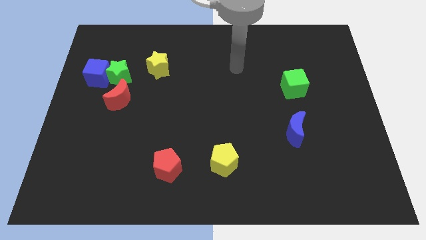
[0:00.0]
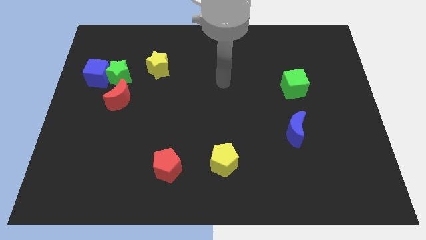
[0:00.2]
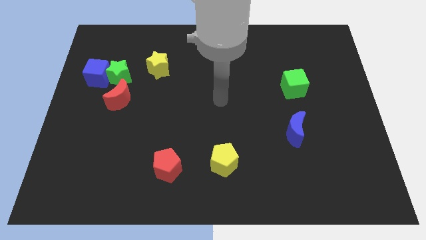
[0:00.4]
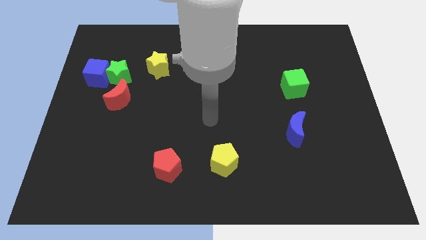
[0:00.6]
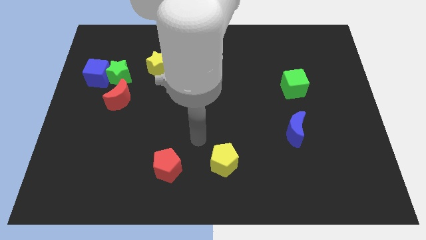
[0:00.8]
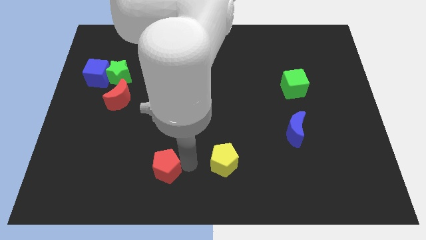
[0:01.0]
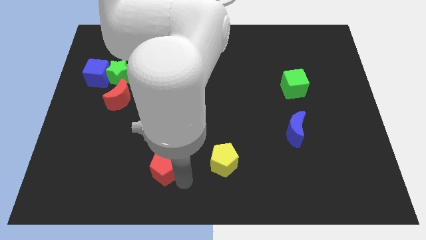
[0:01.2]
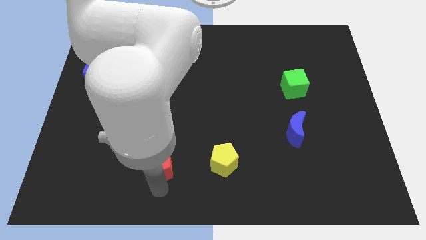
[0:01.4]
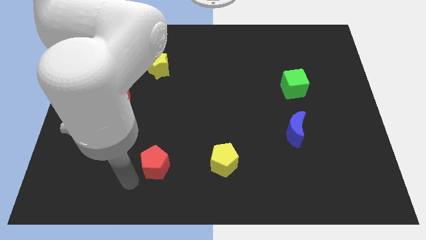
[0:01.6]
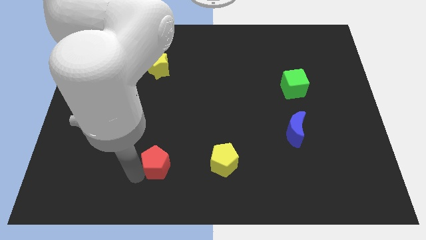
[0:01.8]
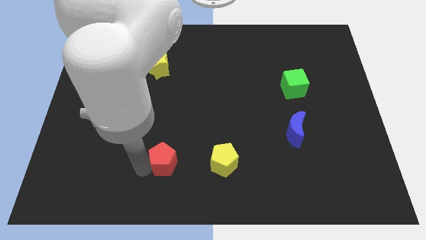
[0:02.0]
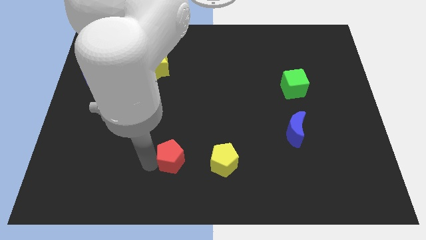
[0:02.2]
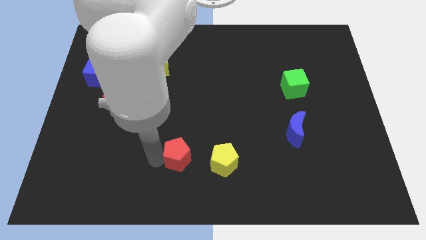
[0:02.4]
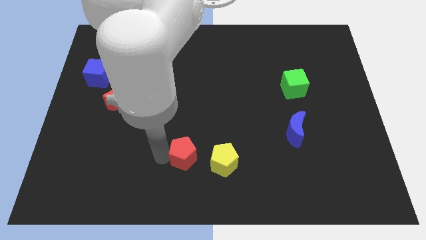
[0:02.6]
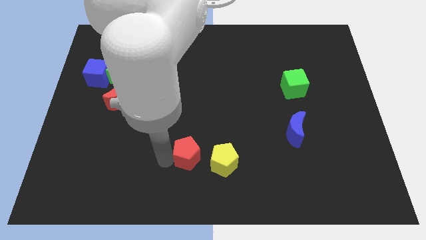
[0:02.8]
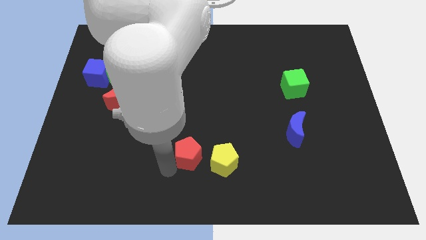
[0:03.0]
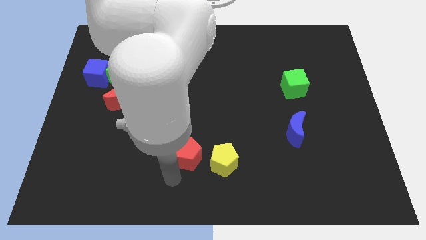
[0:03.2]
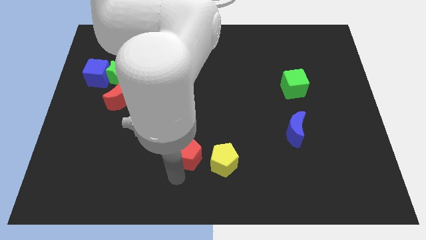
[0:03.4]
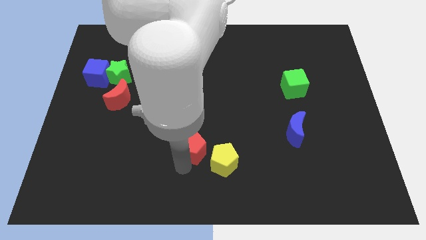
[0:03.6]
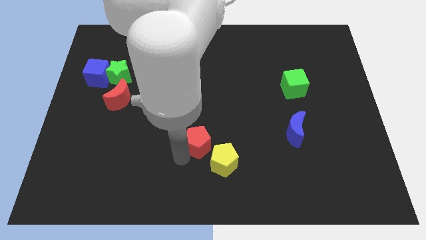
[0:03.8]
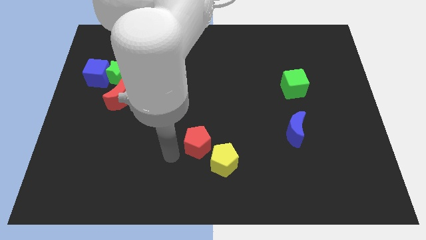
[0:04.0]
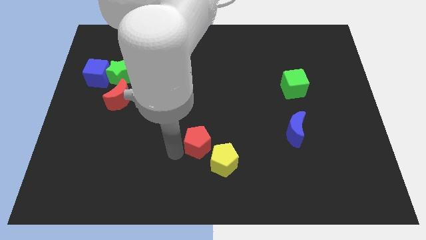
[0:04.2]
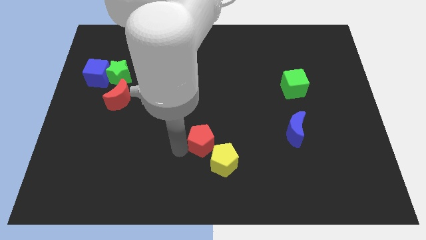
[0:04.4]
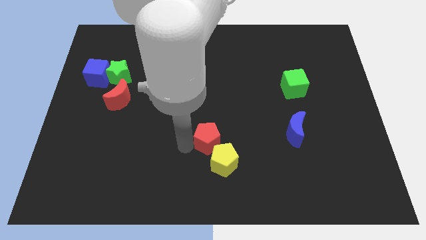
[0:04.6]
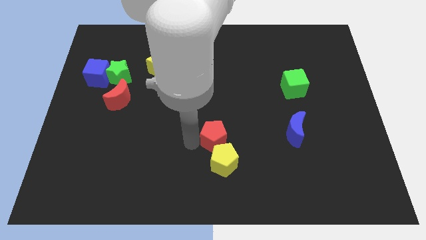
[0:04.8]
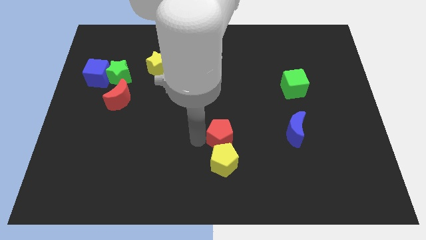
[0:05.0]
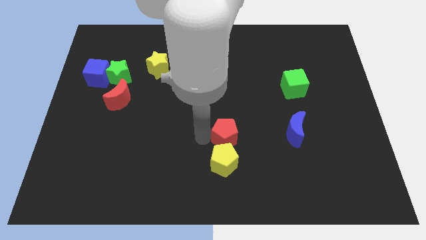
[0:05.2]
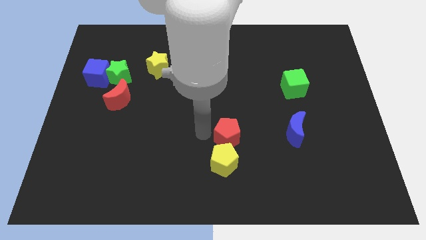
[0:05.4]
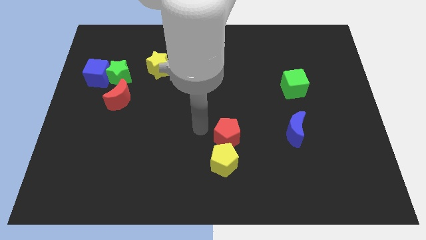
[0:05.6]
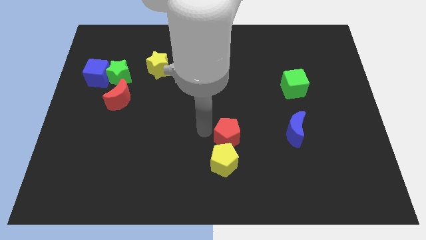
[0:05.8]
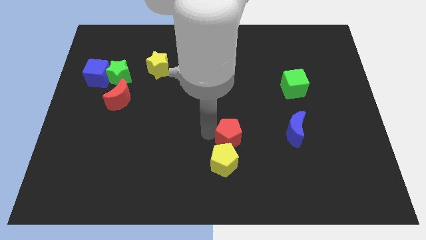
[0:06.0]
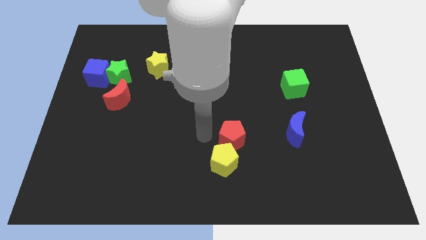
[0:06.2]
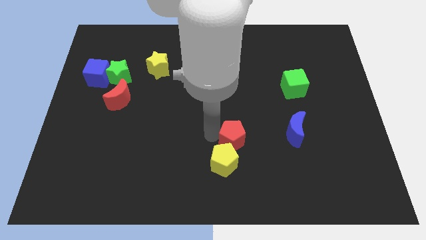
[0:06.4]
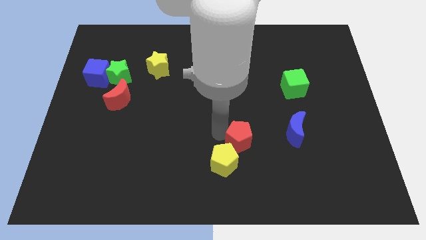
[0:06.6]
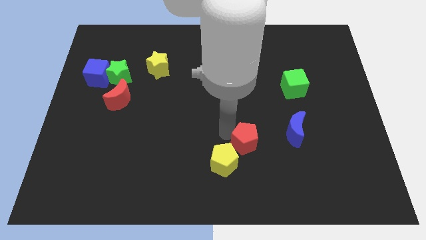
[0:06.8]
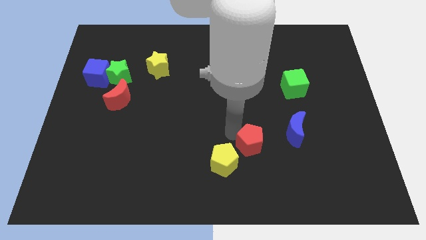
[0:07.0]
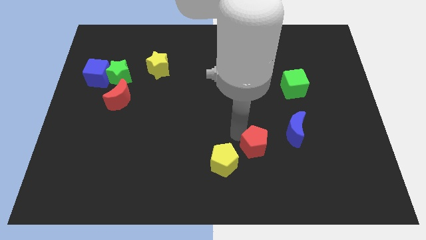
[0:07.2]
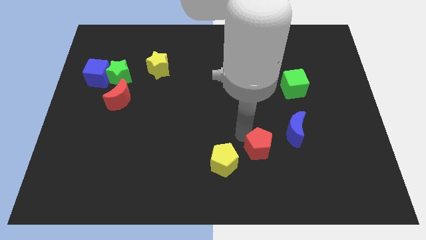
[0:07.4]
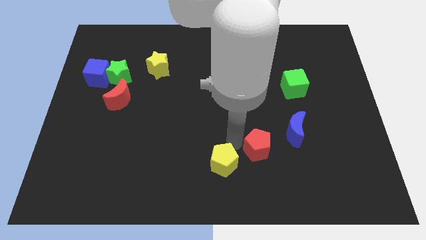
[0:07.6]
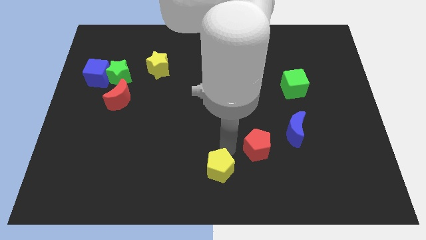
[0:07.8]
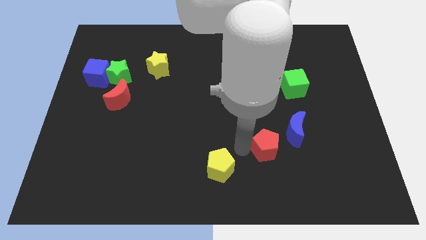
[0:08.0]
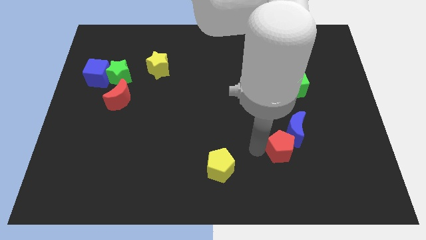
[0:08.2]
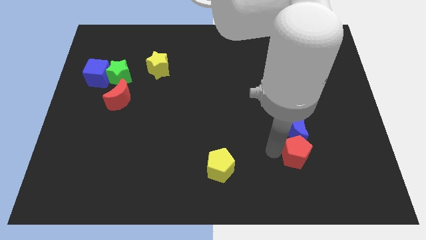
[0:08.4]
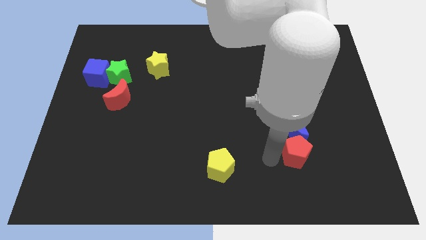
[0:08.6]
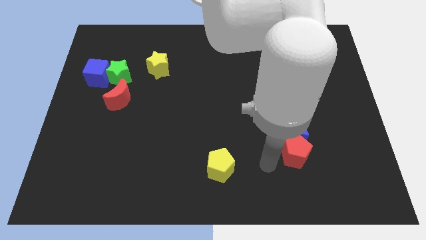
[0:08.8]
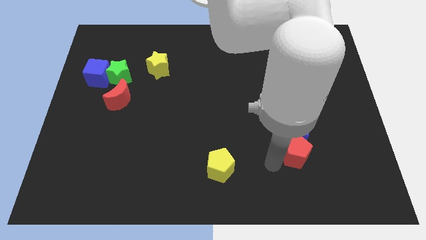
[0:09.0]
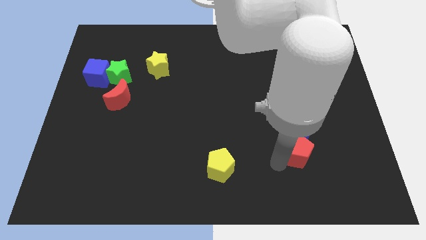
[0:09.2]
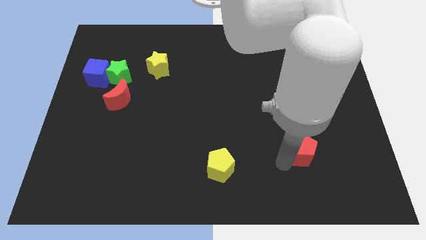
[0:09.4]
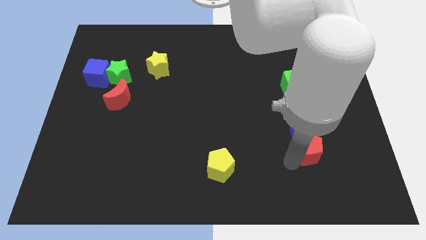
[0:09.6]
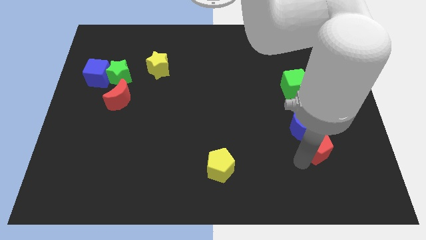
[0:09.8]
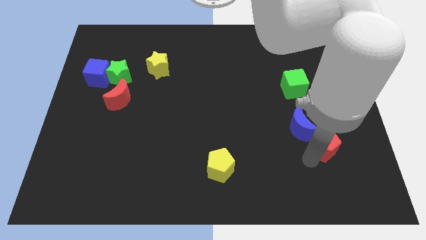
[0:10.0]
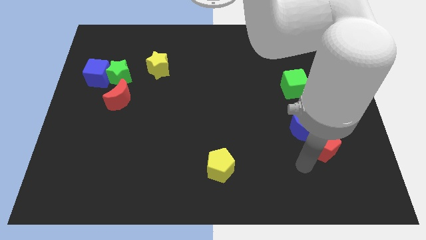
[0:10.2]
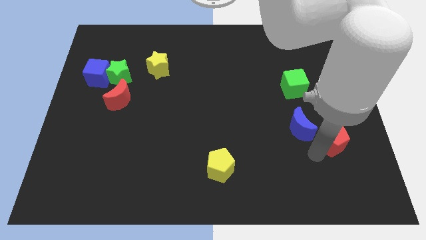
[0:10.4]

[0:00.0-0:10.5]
move the red pentagon to the right side of the blue moon

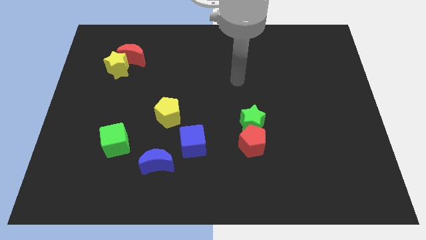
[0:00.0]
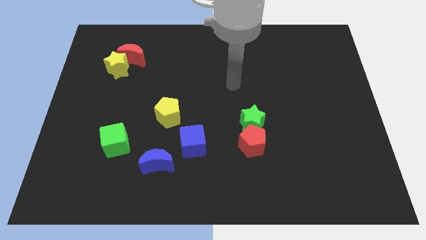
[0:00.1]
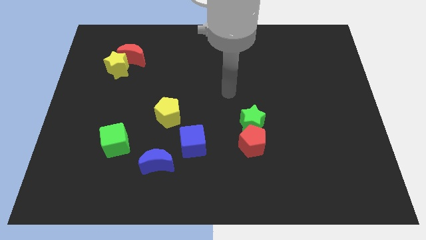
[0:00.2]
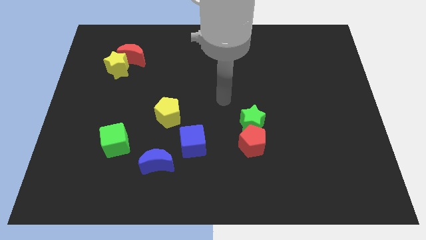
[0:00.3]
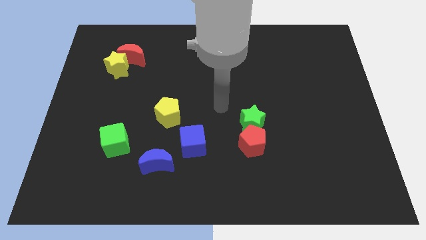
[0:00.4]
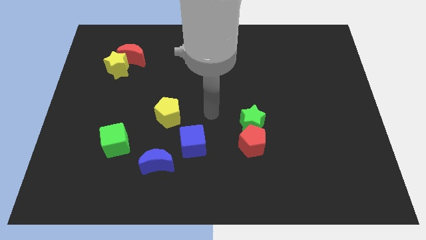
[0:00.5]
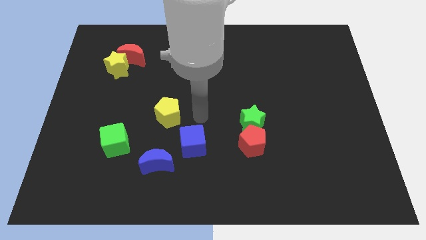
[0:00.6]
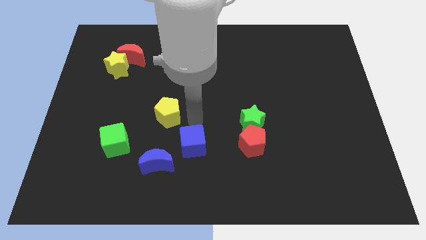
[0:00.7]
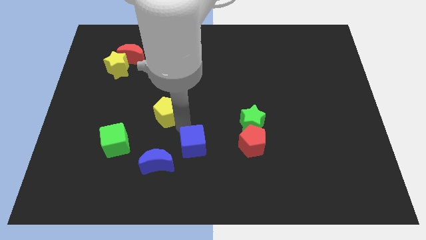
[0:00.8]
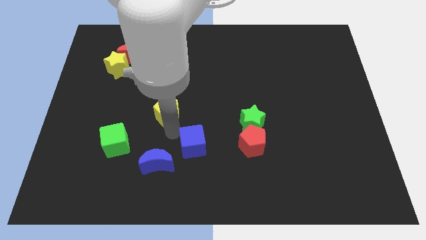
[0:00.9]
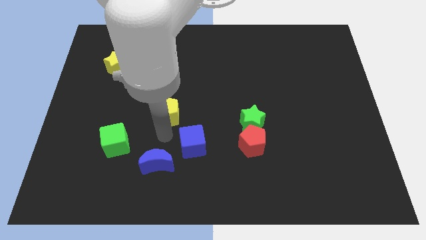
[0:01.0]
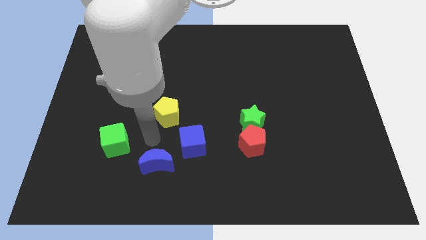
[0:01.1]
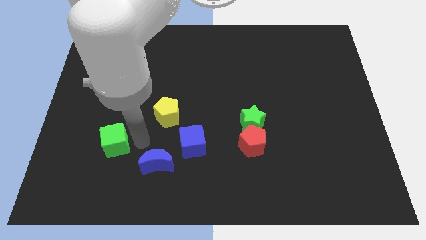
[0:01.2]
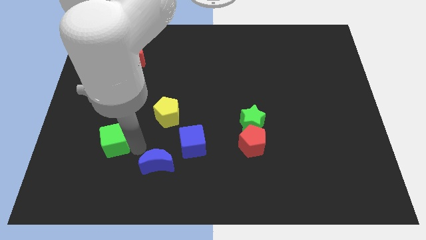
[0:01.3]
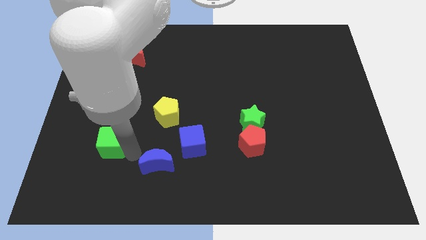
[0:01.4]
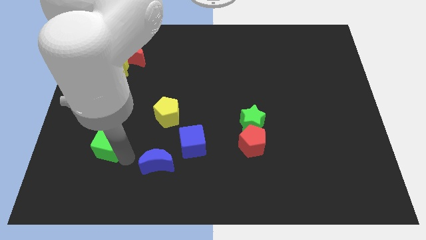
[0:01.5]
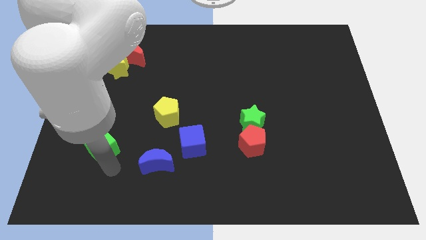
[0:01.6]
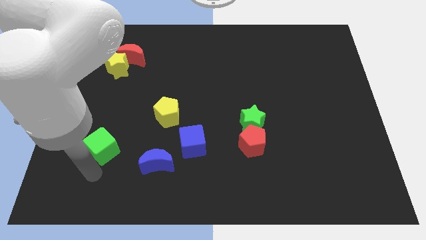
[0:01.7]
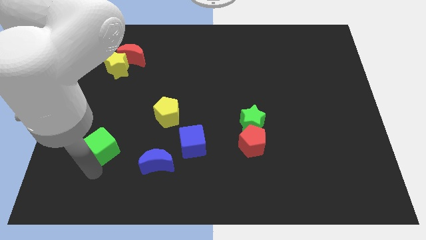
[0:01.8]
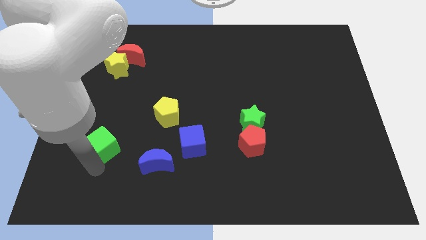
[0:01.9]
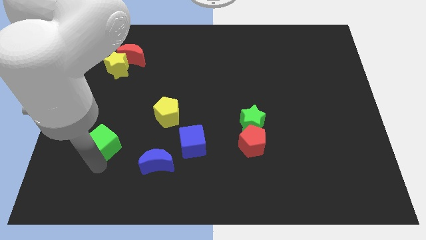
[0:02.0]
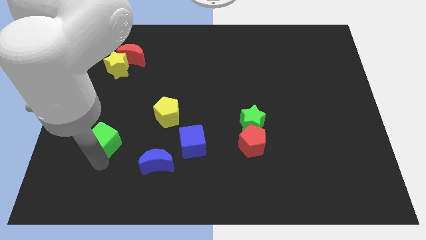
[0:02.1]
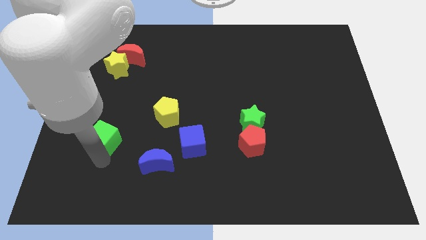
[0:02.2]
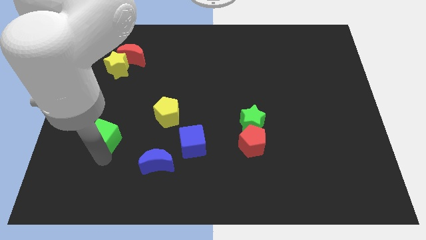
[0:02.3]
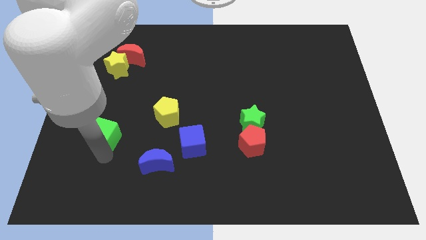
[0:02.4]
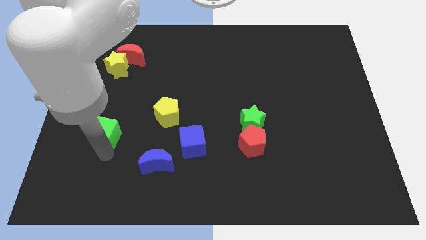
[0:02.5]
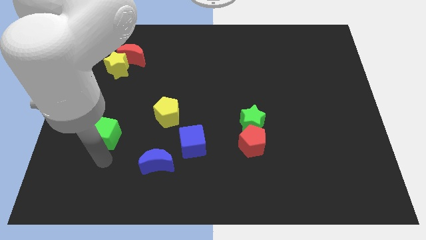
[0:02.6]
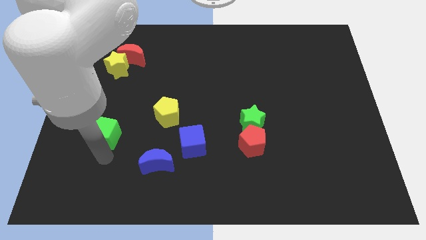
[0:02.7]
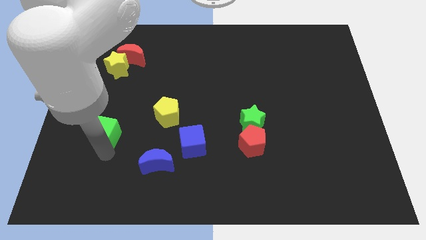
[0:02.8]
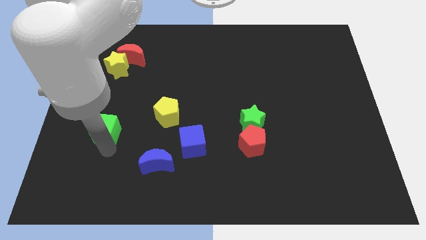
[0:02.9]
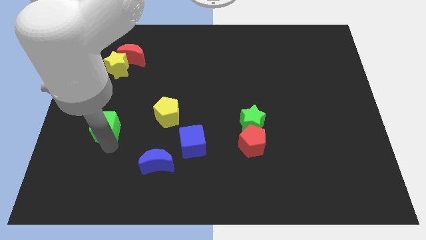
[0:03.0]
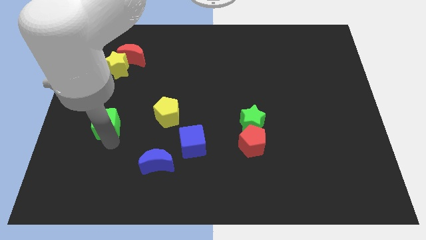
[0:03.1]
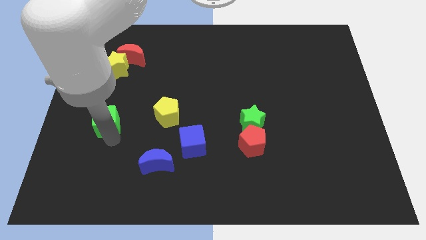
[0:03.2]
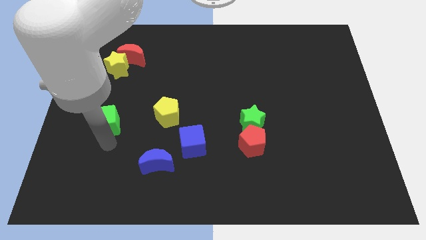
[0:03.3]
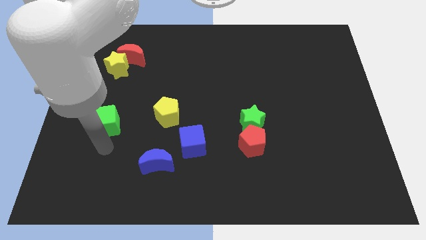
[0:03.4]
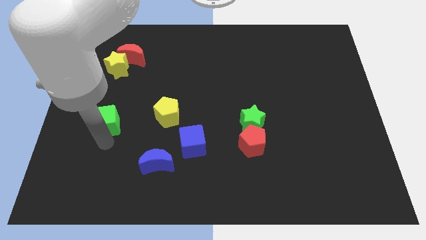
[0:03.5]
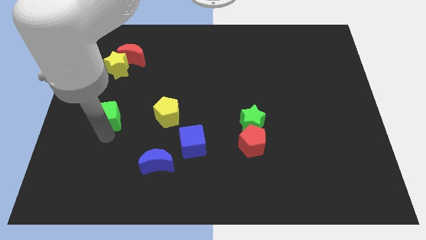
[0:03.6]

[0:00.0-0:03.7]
move the green cube to the bottom side of the yellow star
